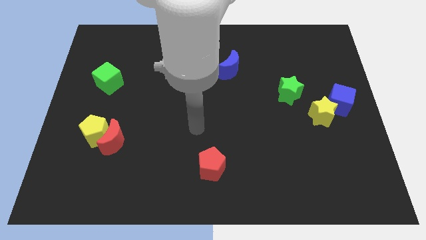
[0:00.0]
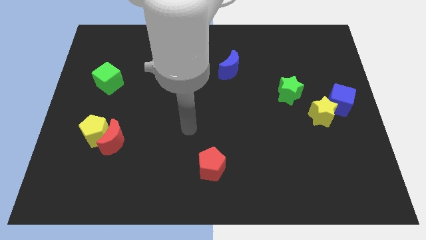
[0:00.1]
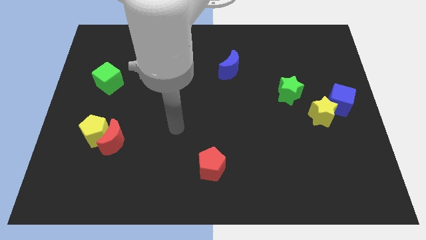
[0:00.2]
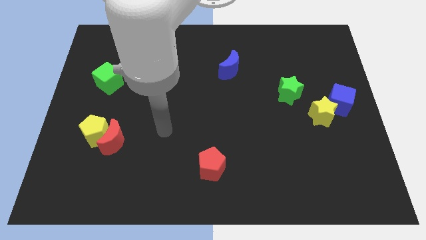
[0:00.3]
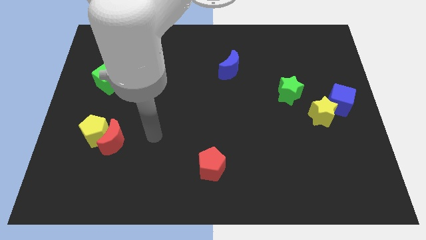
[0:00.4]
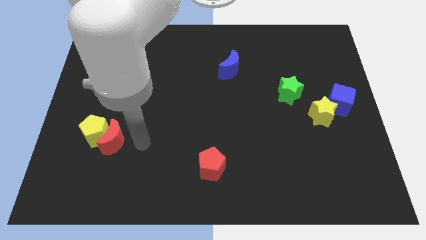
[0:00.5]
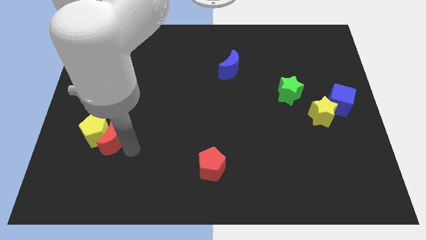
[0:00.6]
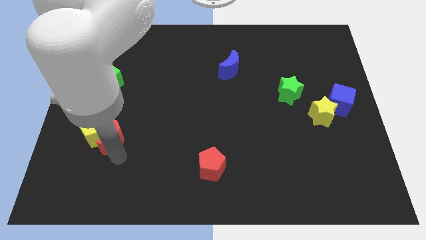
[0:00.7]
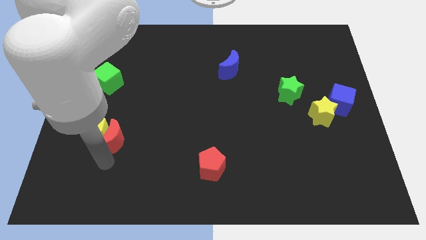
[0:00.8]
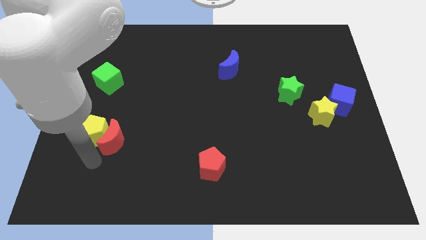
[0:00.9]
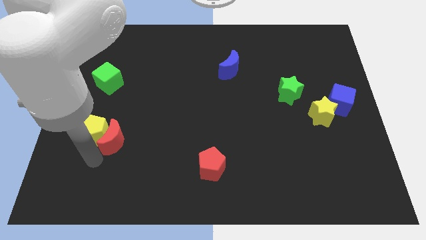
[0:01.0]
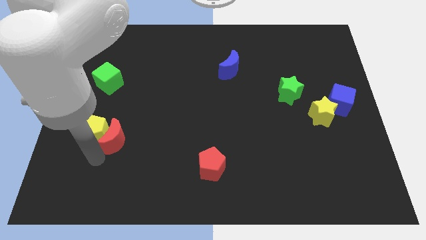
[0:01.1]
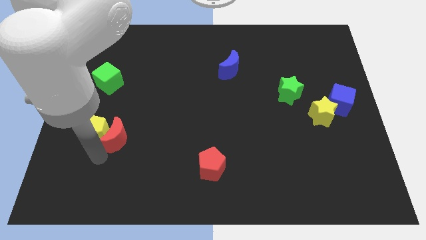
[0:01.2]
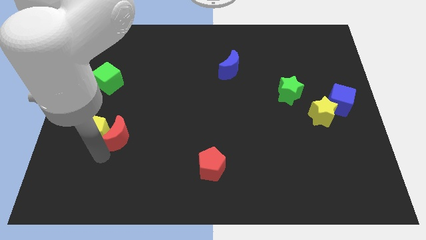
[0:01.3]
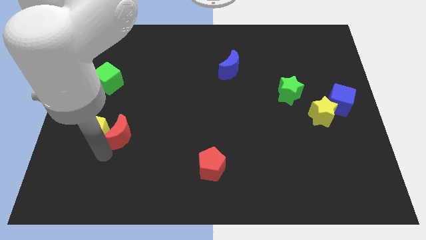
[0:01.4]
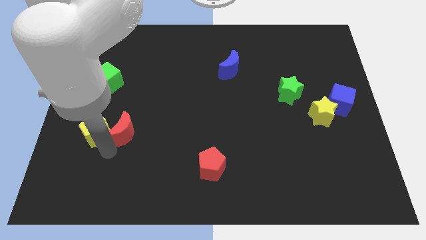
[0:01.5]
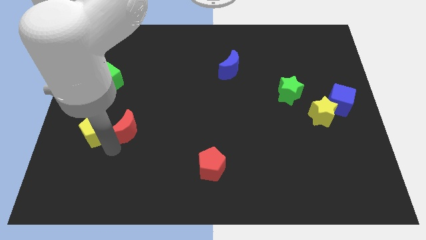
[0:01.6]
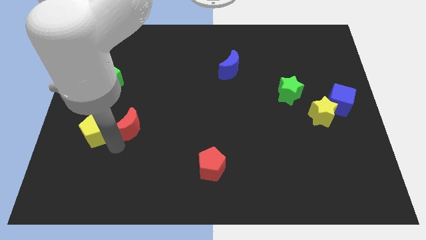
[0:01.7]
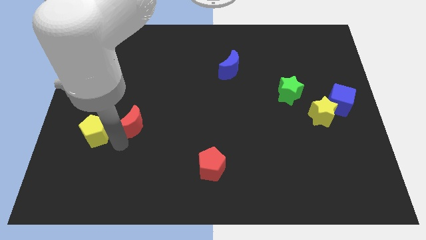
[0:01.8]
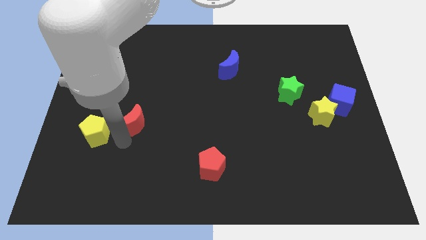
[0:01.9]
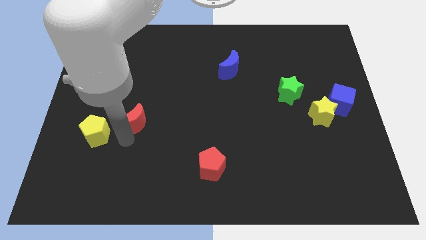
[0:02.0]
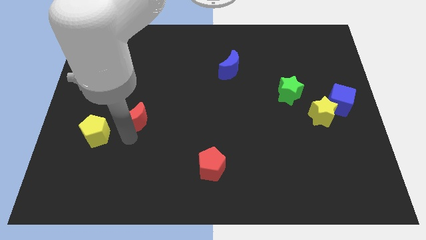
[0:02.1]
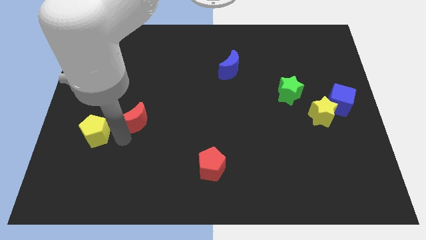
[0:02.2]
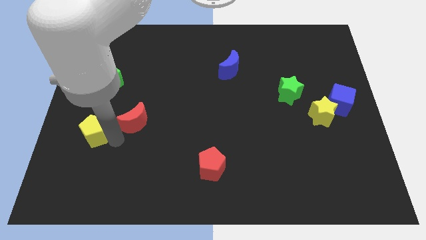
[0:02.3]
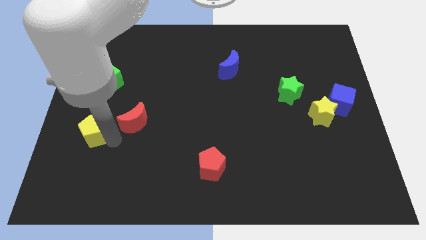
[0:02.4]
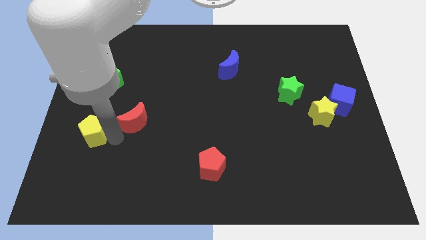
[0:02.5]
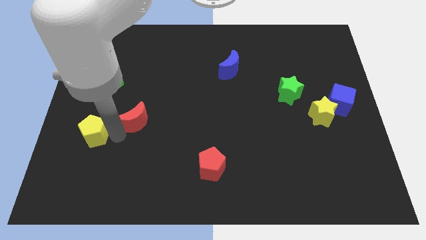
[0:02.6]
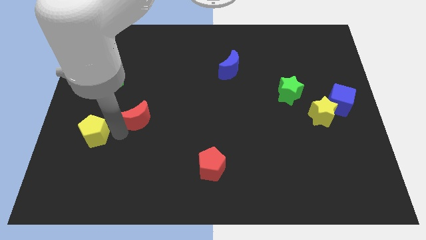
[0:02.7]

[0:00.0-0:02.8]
push the red moon up and right a little

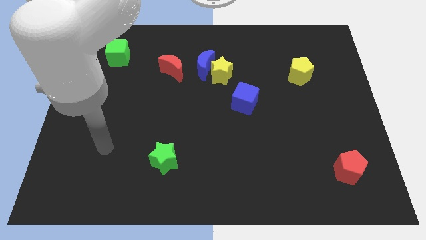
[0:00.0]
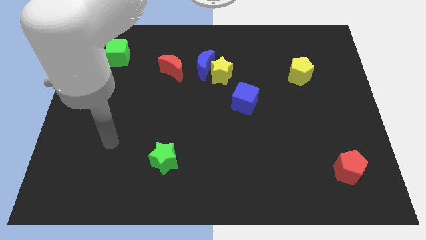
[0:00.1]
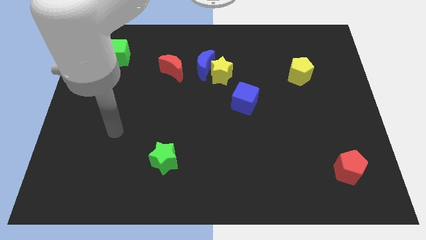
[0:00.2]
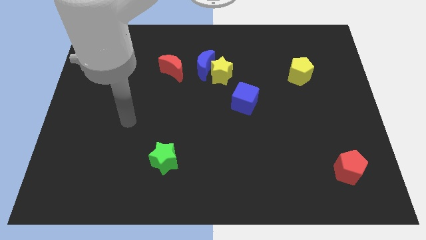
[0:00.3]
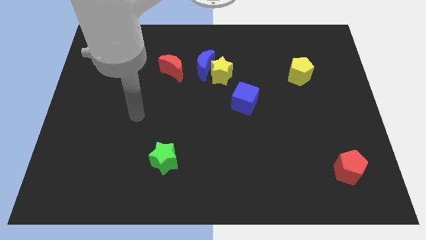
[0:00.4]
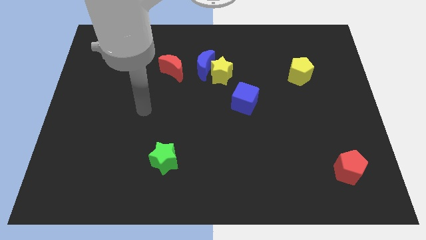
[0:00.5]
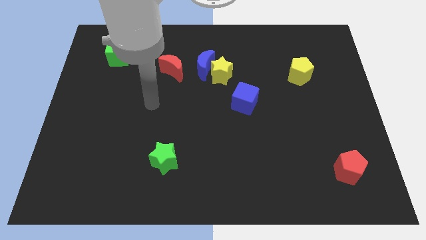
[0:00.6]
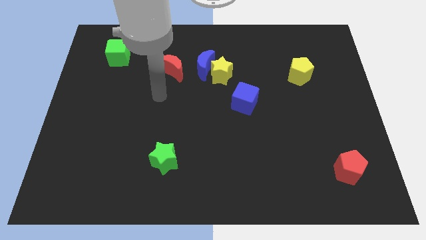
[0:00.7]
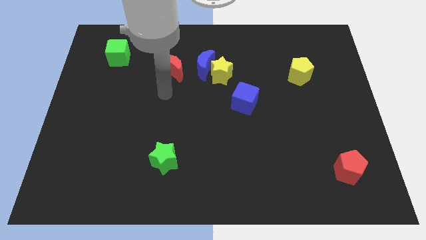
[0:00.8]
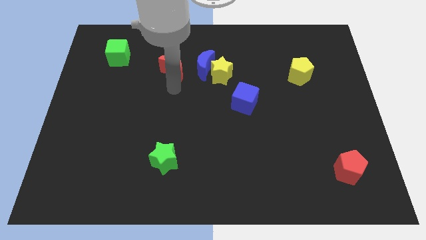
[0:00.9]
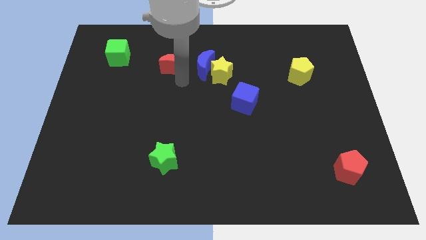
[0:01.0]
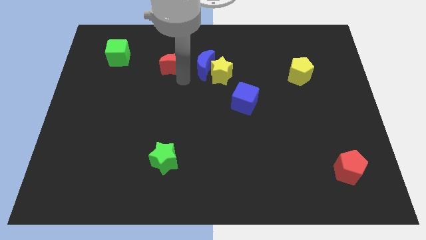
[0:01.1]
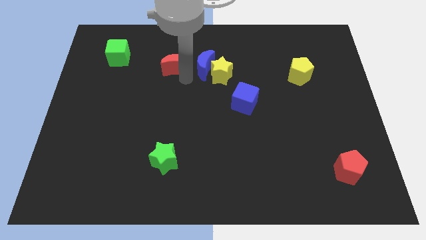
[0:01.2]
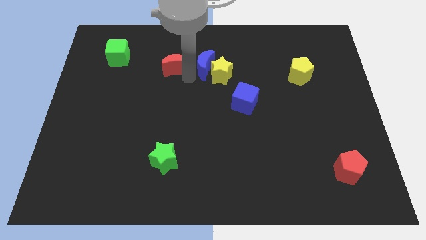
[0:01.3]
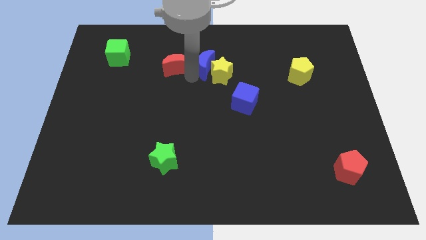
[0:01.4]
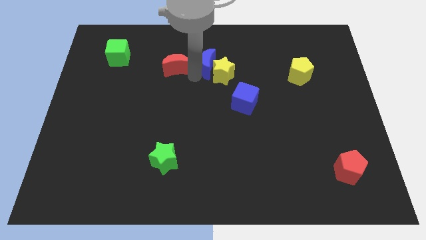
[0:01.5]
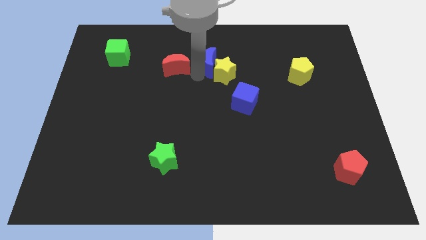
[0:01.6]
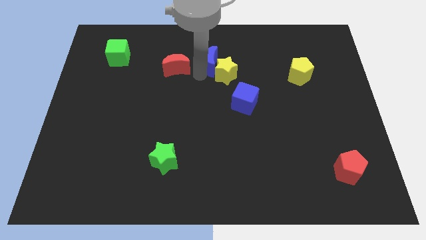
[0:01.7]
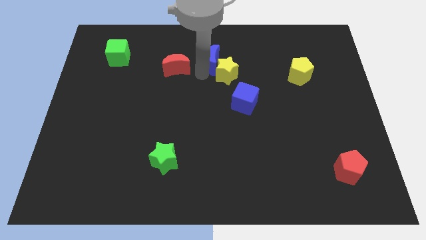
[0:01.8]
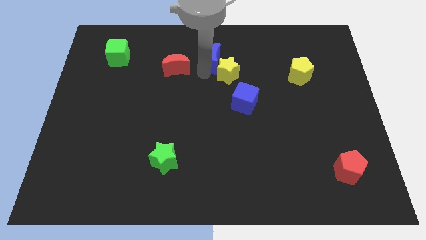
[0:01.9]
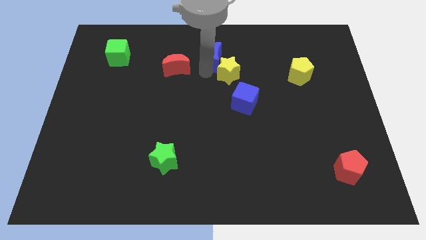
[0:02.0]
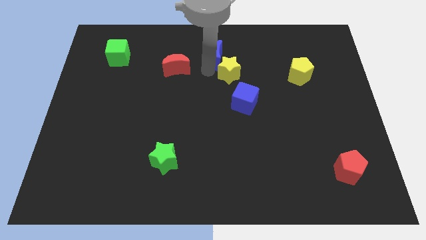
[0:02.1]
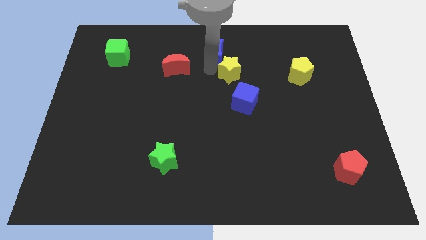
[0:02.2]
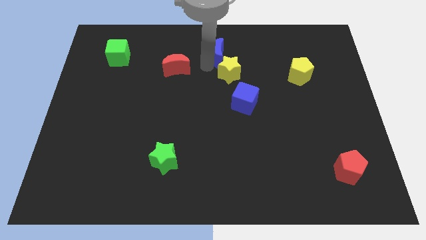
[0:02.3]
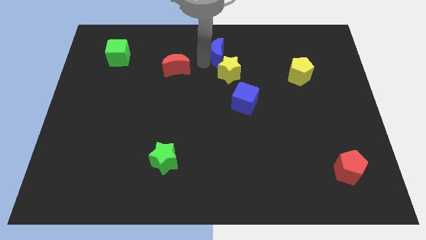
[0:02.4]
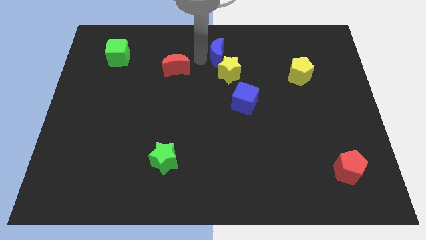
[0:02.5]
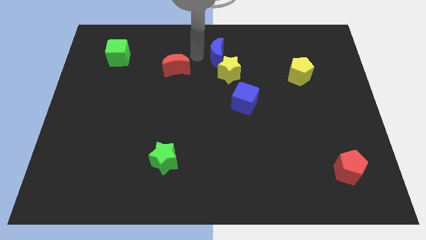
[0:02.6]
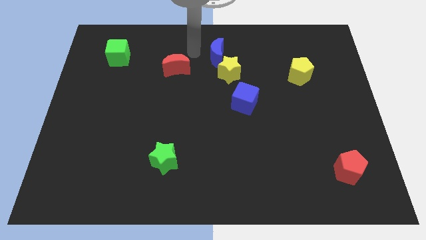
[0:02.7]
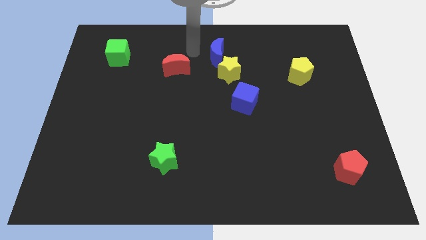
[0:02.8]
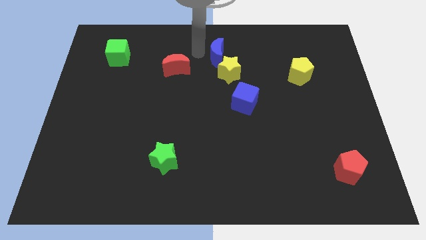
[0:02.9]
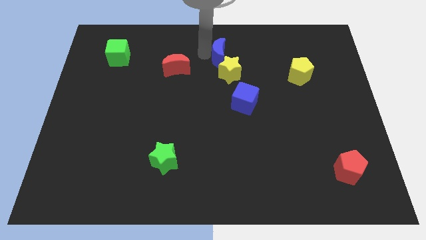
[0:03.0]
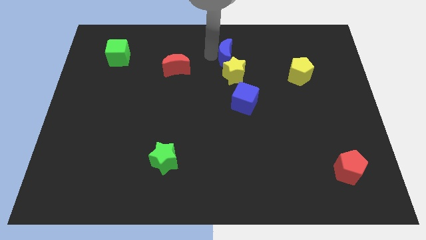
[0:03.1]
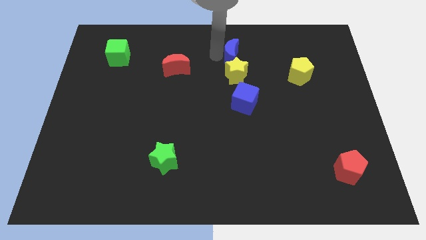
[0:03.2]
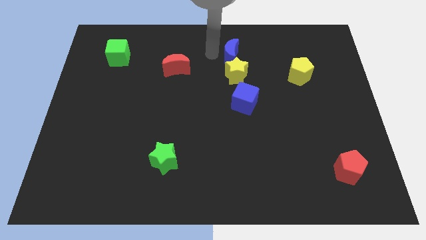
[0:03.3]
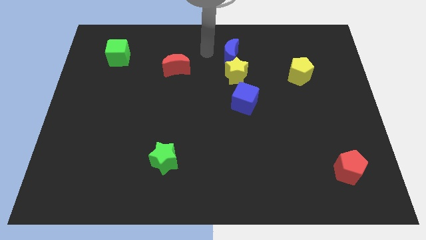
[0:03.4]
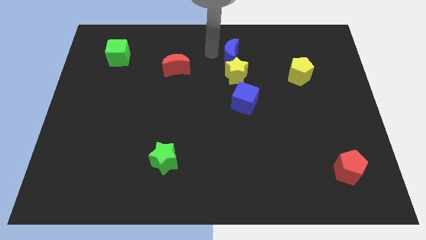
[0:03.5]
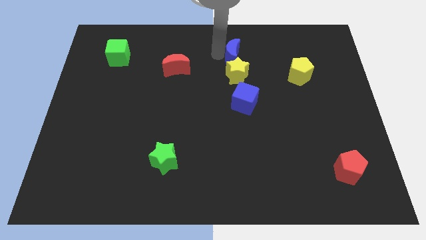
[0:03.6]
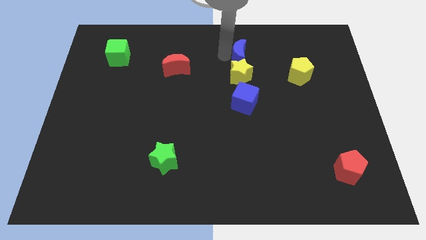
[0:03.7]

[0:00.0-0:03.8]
slightly push the blue moon to the right

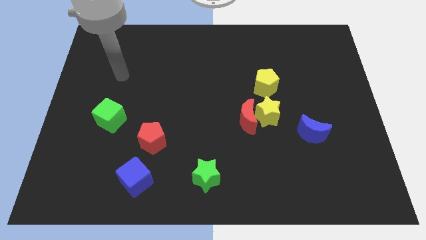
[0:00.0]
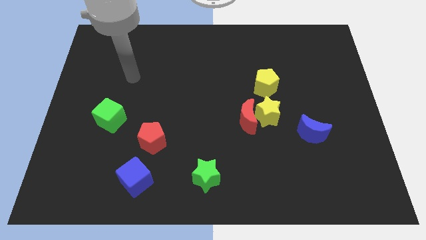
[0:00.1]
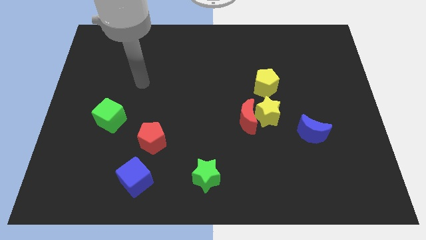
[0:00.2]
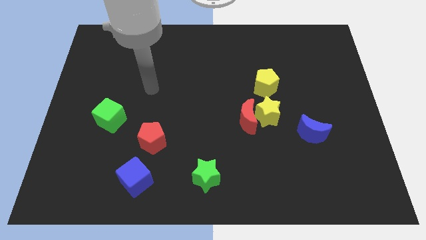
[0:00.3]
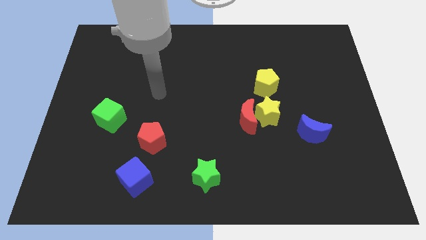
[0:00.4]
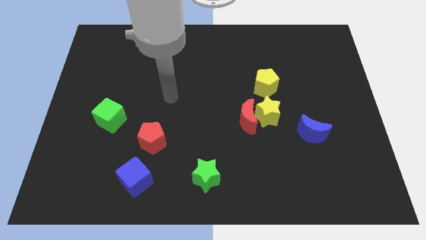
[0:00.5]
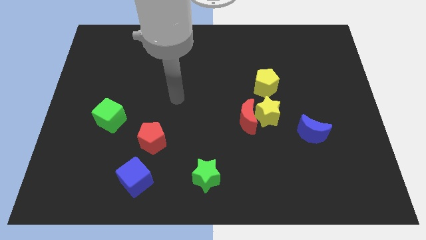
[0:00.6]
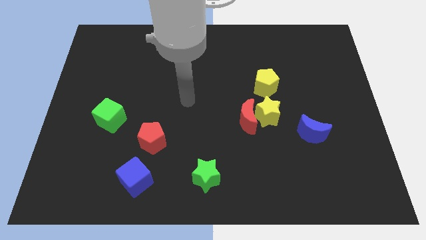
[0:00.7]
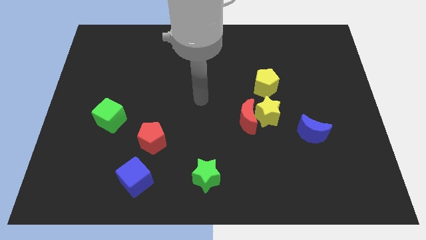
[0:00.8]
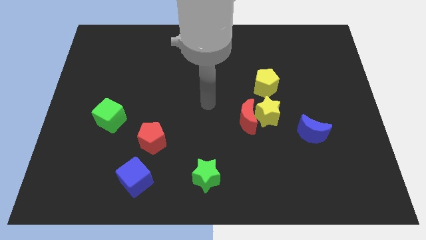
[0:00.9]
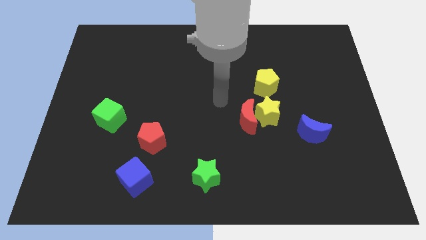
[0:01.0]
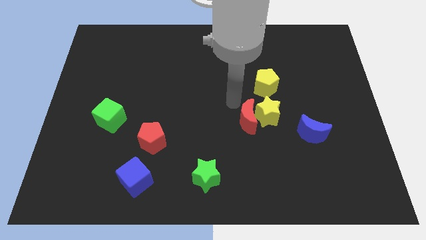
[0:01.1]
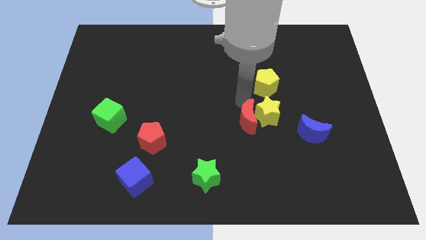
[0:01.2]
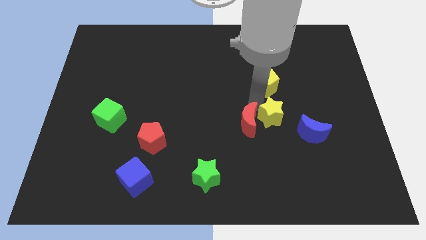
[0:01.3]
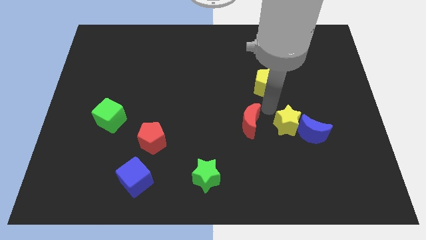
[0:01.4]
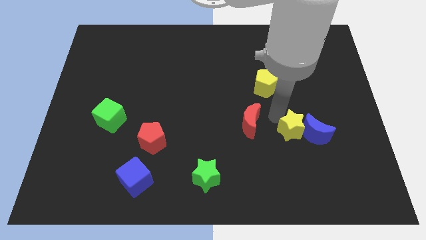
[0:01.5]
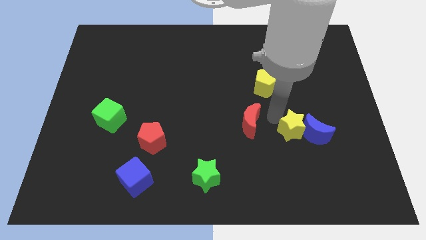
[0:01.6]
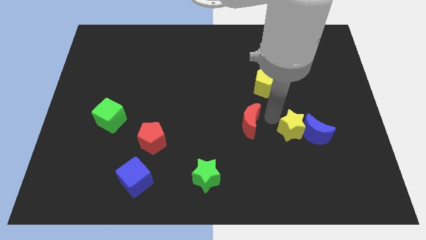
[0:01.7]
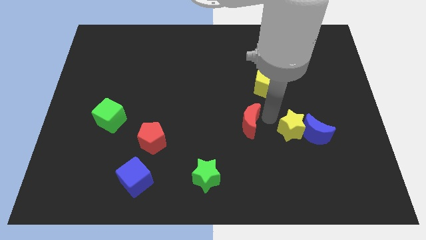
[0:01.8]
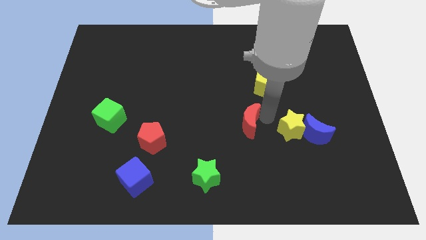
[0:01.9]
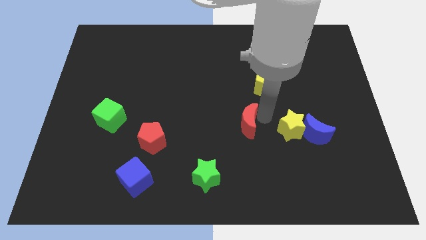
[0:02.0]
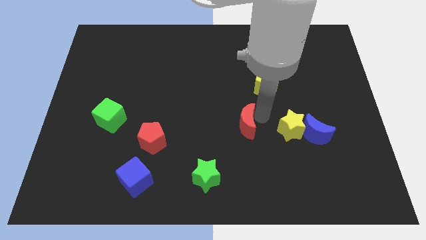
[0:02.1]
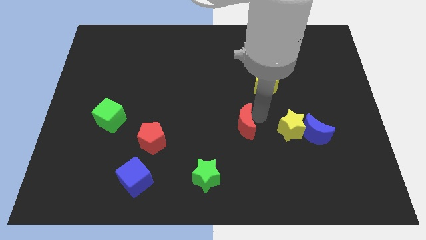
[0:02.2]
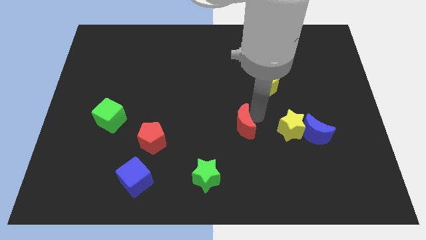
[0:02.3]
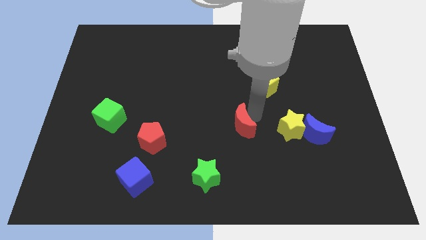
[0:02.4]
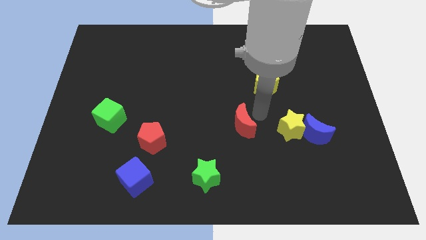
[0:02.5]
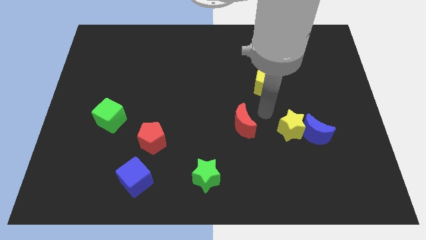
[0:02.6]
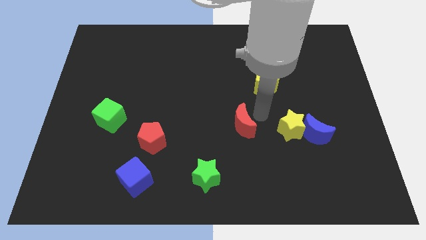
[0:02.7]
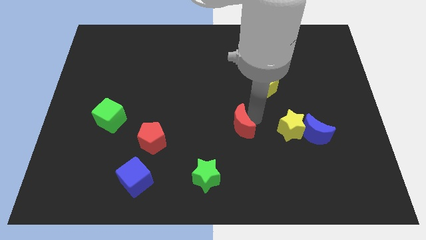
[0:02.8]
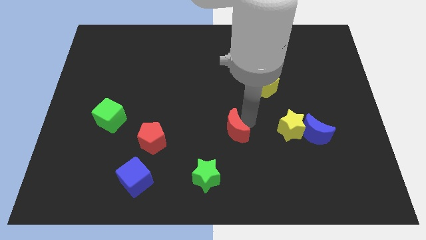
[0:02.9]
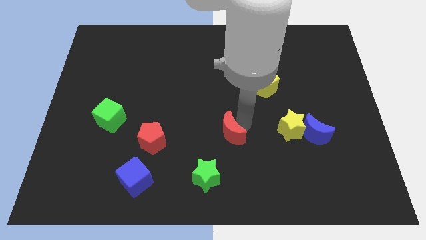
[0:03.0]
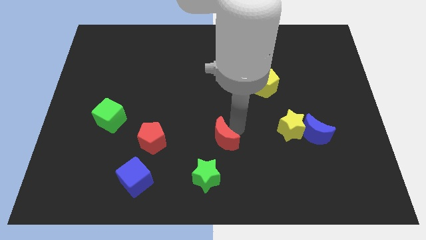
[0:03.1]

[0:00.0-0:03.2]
push the red moon downwards and left a bit
